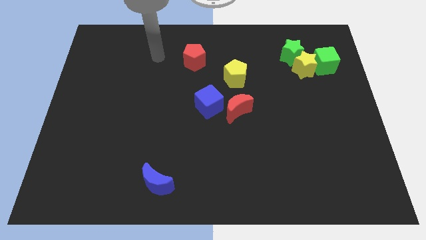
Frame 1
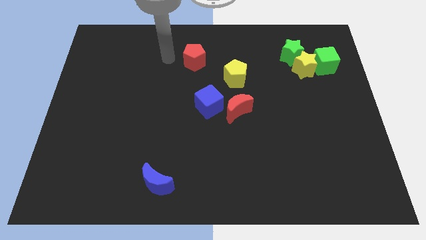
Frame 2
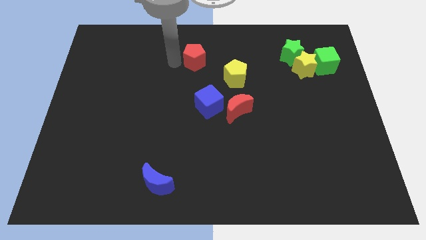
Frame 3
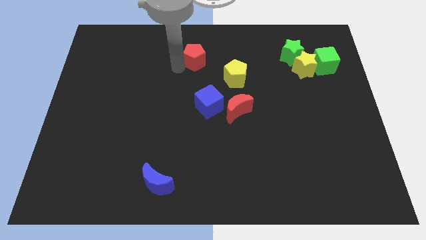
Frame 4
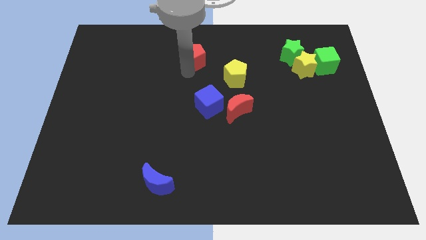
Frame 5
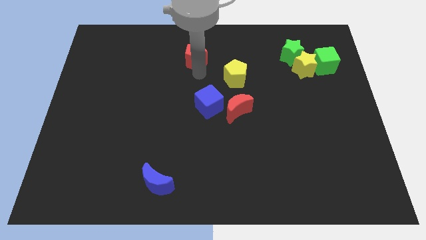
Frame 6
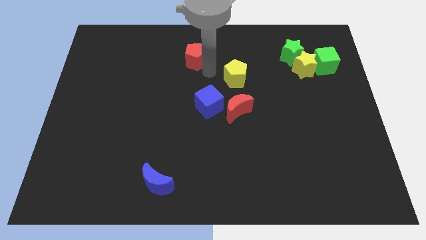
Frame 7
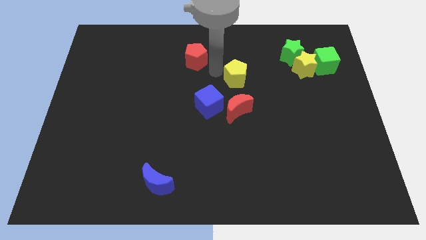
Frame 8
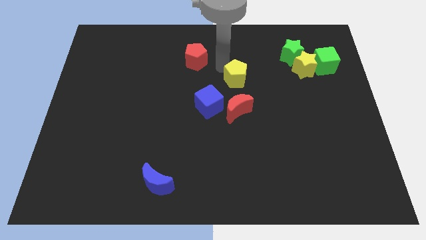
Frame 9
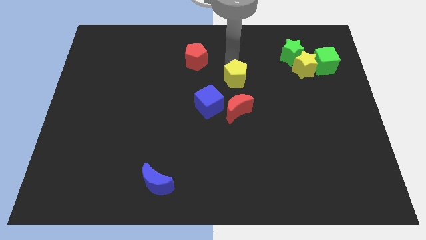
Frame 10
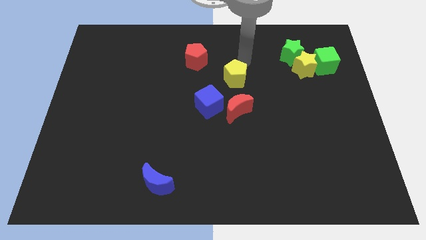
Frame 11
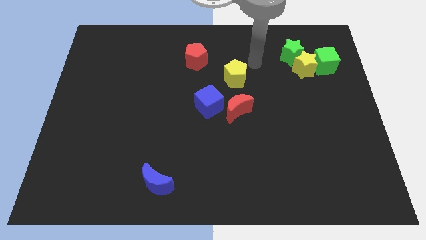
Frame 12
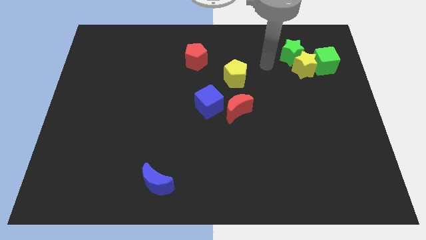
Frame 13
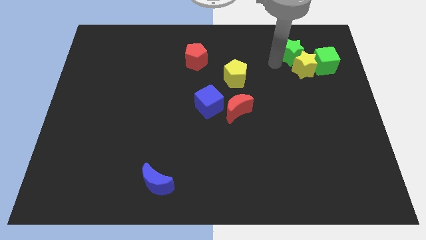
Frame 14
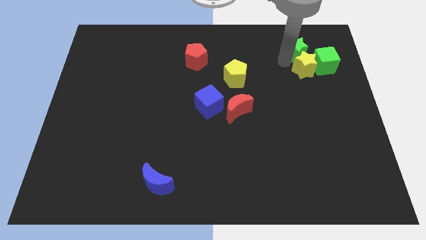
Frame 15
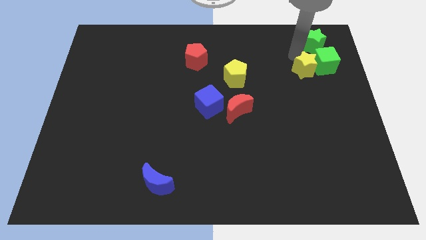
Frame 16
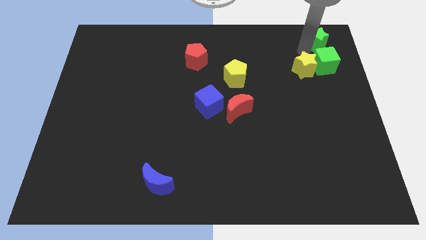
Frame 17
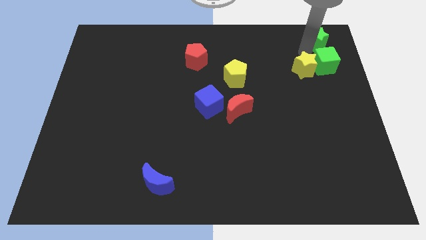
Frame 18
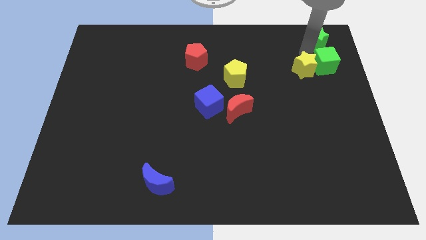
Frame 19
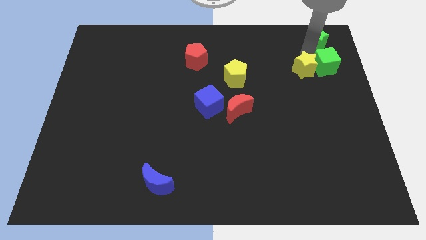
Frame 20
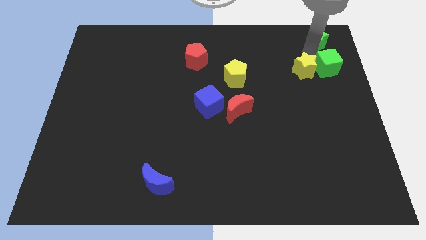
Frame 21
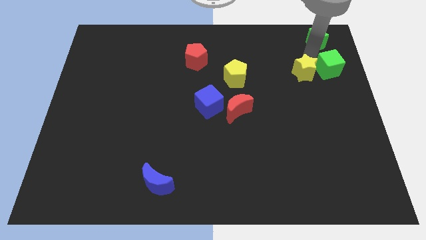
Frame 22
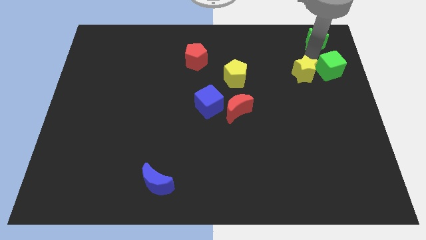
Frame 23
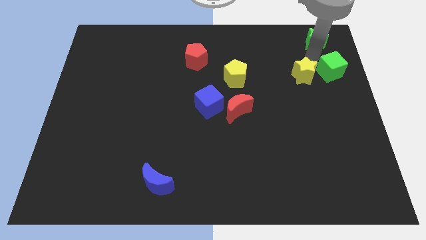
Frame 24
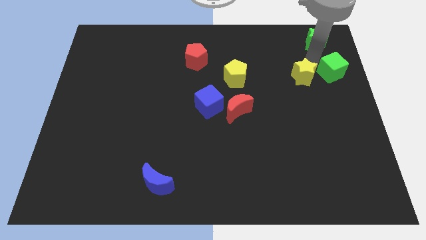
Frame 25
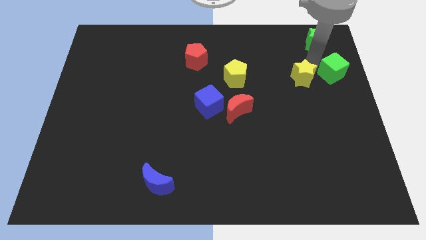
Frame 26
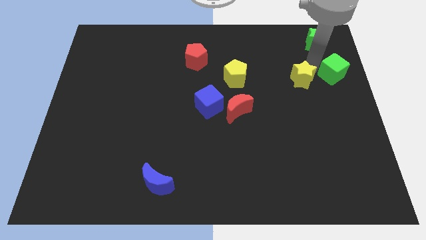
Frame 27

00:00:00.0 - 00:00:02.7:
separate the yellow star from the green star and green cube

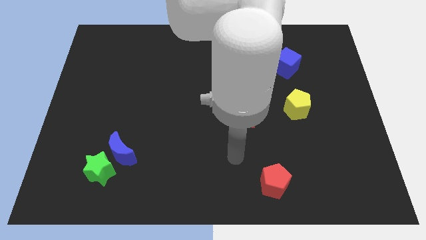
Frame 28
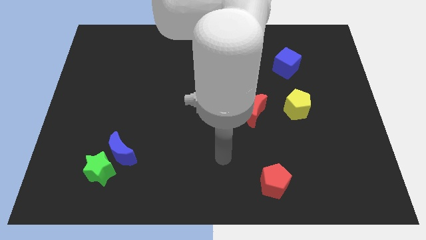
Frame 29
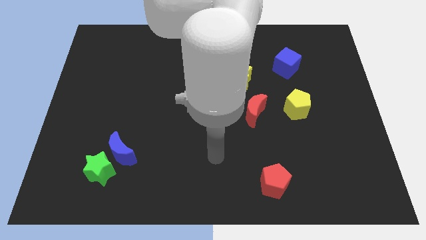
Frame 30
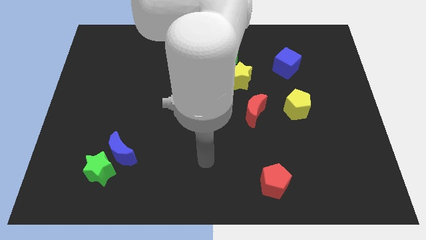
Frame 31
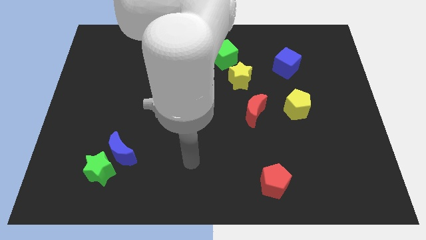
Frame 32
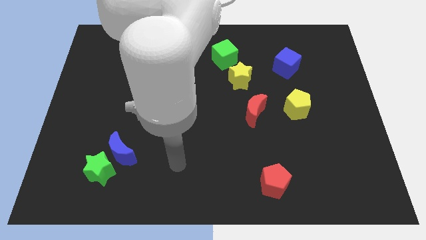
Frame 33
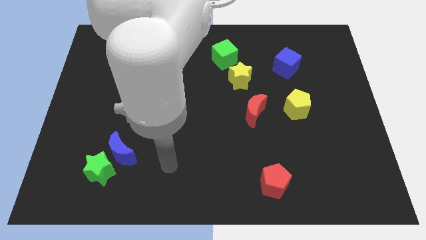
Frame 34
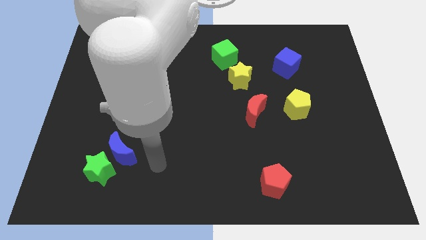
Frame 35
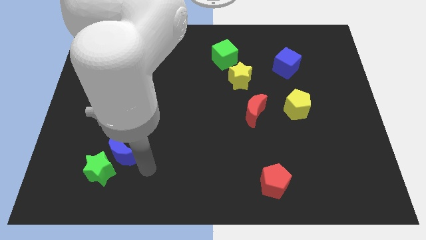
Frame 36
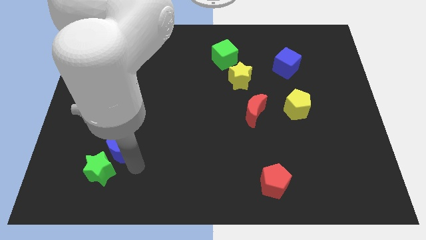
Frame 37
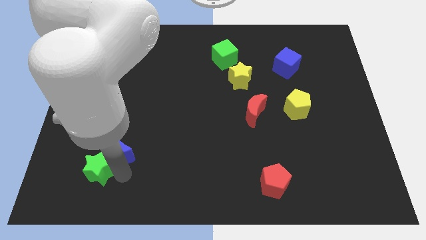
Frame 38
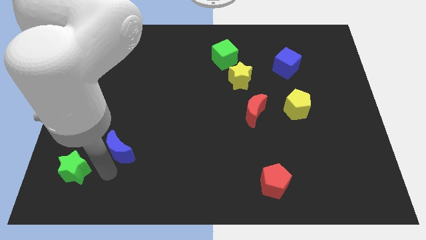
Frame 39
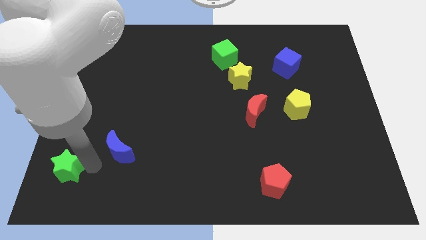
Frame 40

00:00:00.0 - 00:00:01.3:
pull the blue moon apart from the green star

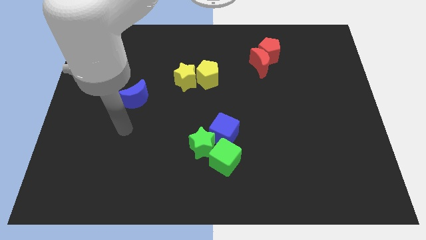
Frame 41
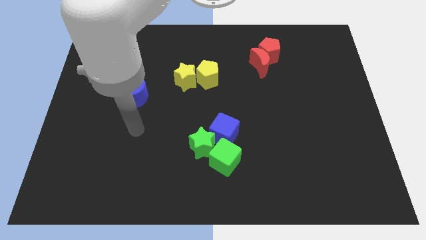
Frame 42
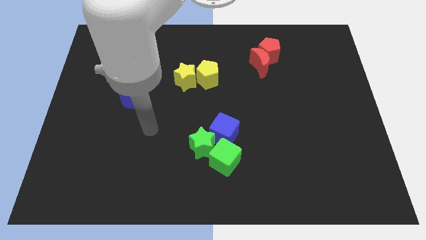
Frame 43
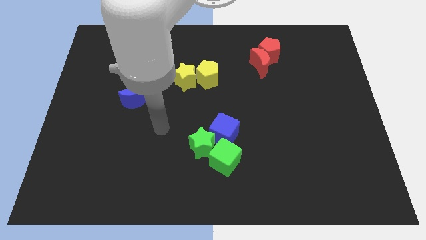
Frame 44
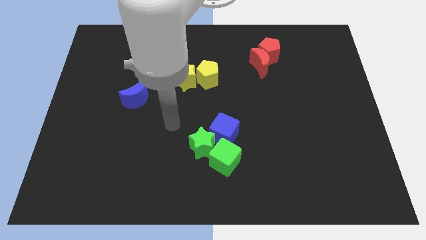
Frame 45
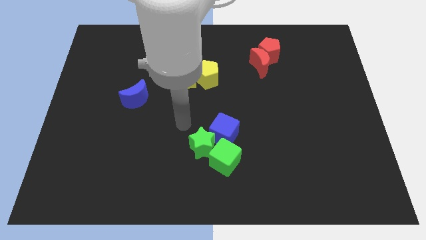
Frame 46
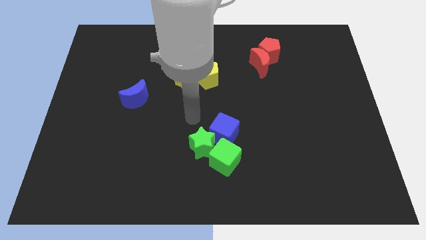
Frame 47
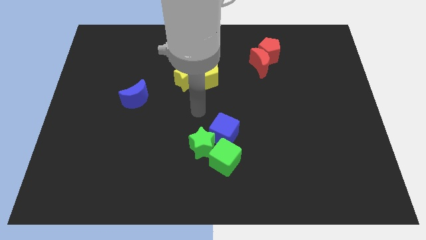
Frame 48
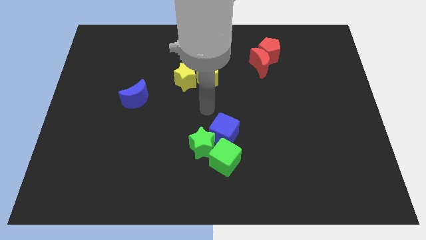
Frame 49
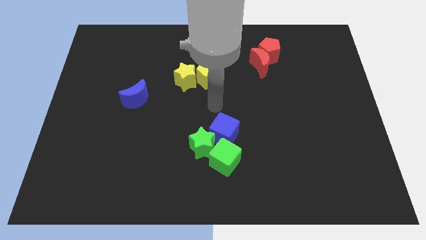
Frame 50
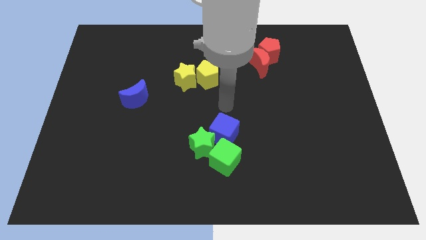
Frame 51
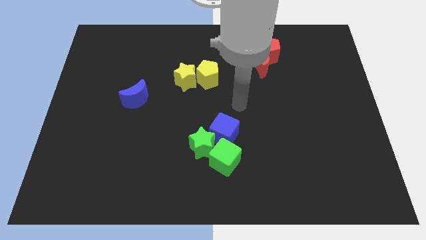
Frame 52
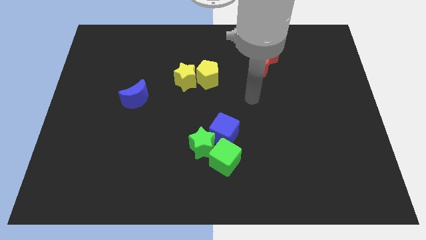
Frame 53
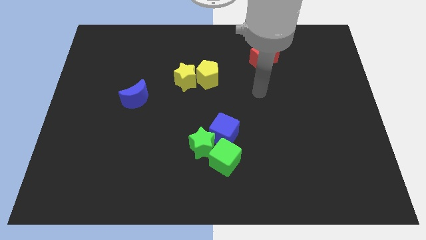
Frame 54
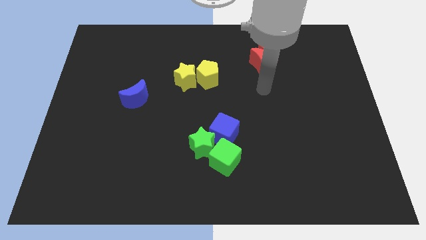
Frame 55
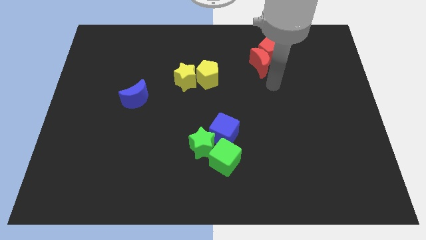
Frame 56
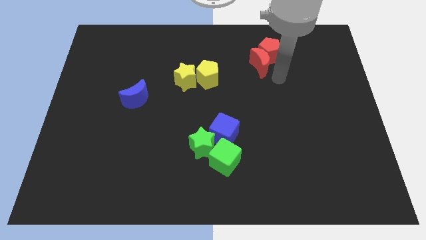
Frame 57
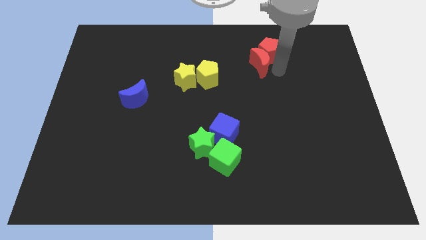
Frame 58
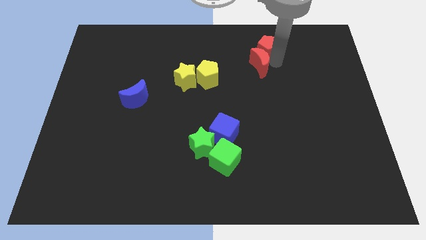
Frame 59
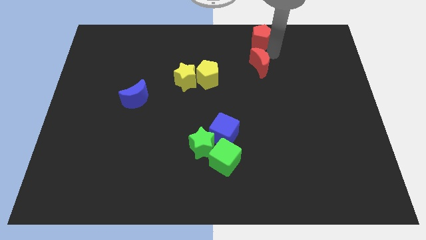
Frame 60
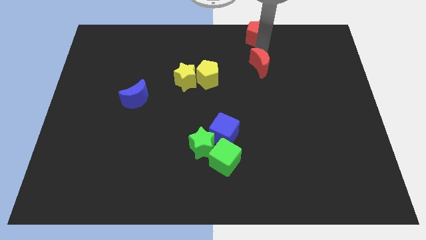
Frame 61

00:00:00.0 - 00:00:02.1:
pull the red moon apart from the red pentagon

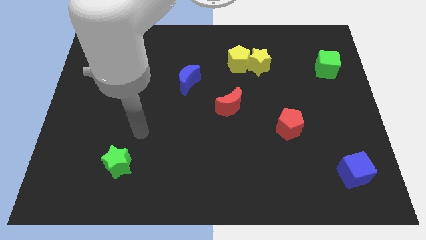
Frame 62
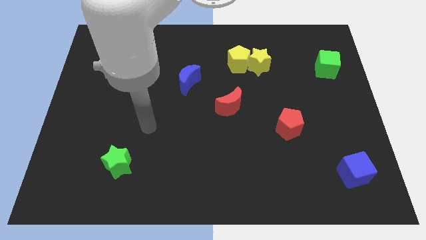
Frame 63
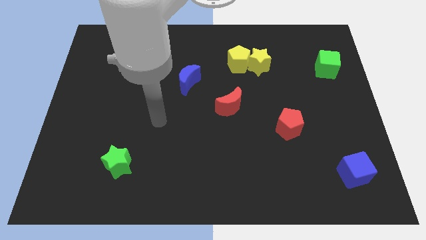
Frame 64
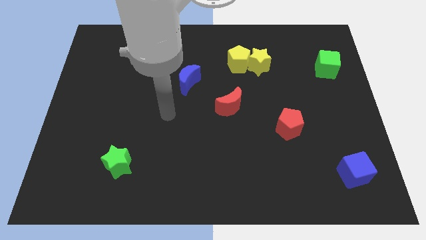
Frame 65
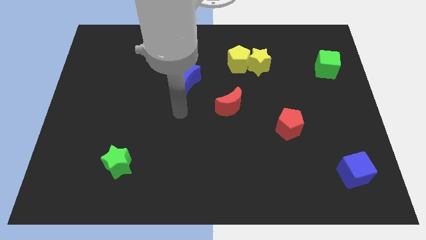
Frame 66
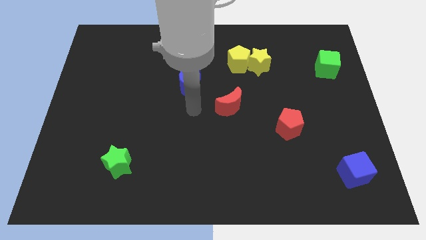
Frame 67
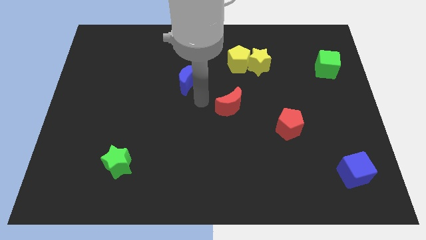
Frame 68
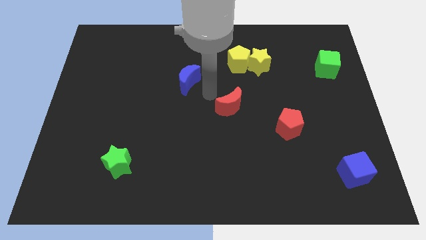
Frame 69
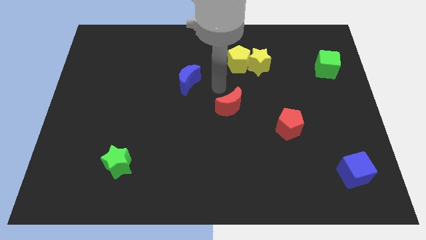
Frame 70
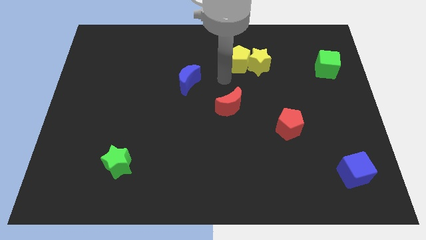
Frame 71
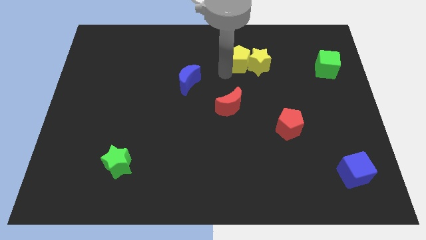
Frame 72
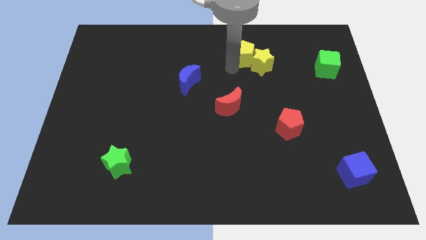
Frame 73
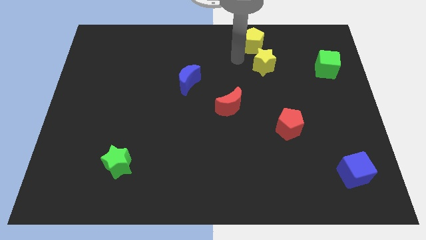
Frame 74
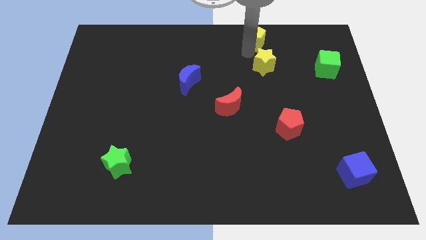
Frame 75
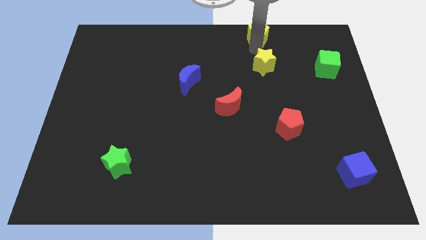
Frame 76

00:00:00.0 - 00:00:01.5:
move the yellow star away from the yellow pentagon

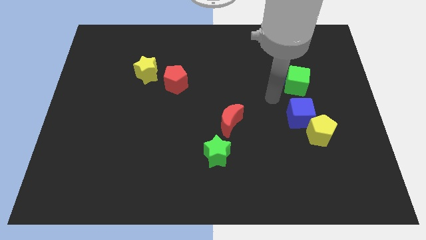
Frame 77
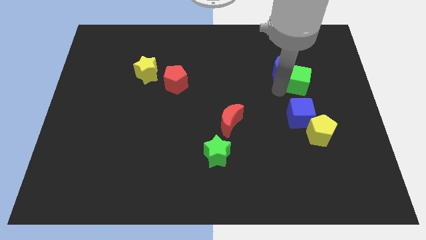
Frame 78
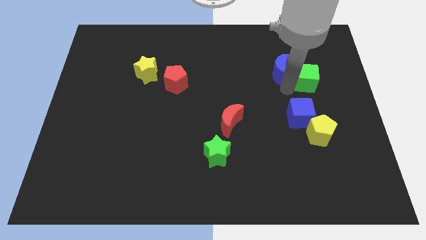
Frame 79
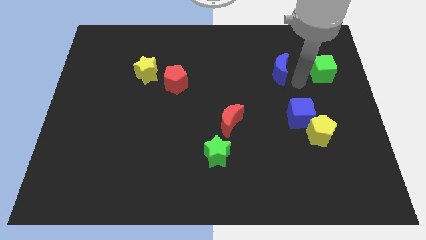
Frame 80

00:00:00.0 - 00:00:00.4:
move the blue moon away from the green cube

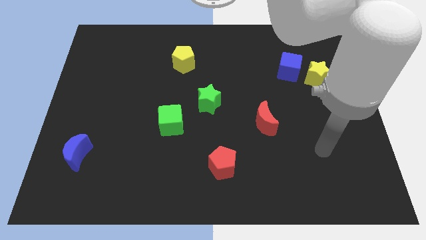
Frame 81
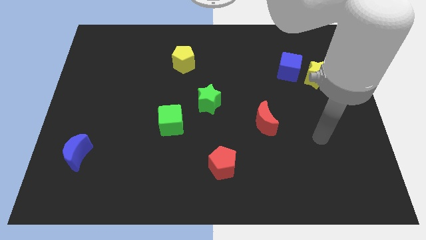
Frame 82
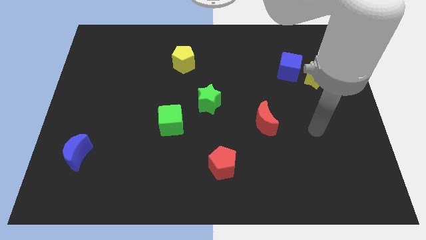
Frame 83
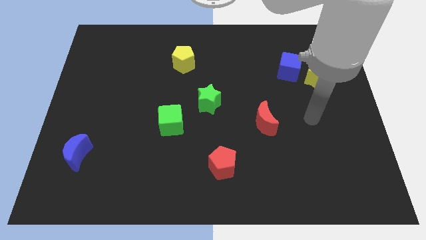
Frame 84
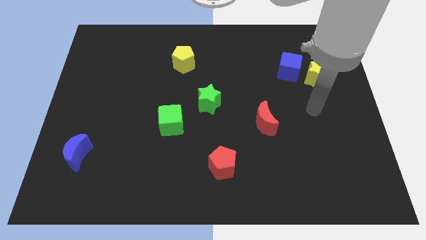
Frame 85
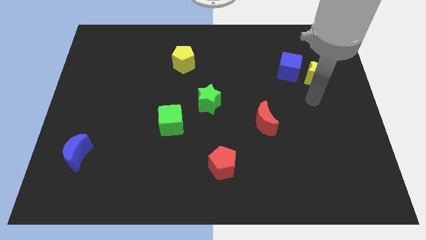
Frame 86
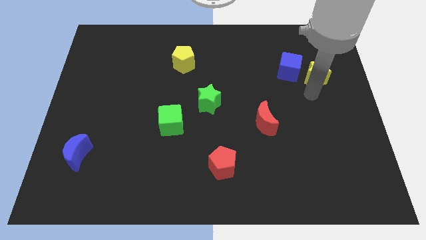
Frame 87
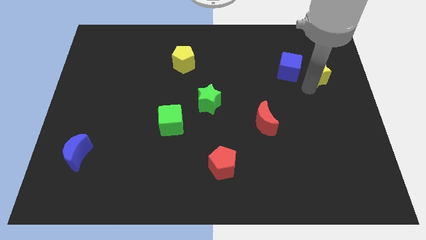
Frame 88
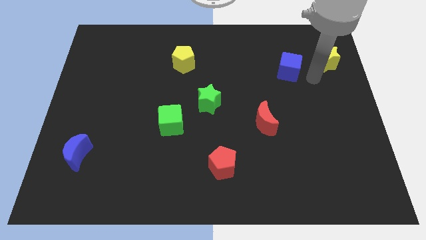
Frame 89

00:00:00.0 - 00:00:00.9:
pull the blue cube apart from the yellow star

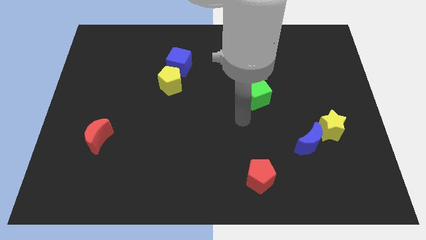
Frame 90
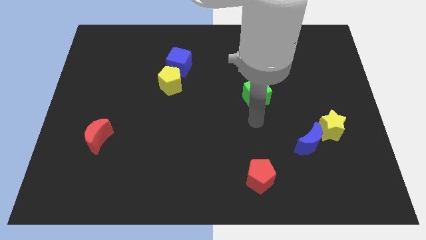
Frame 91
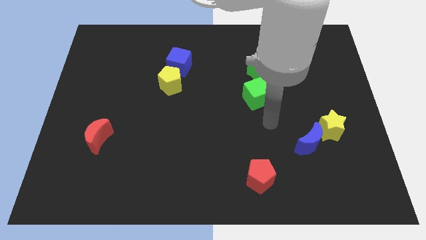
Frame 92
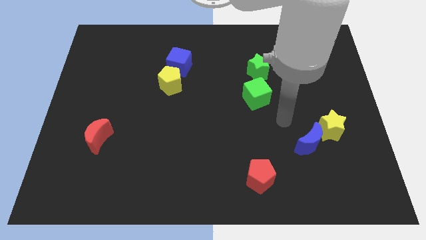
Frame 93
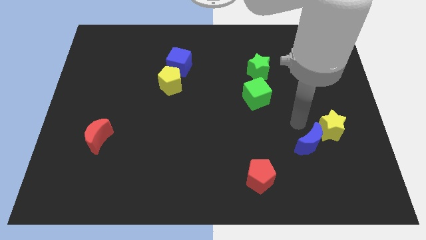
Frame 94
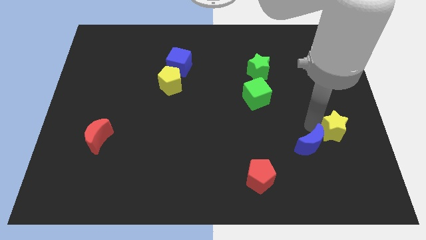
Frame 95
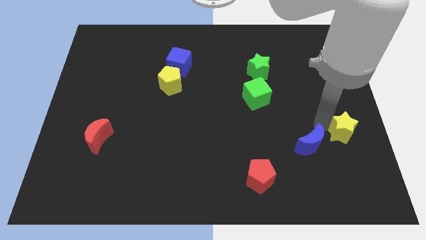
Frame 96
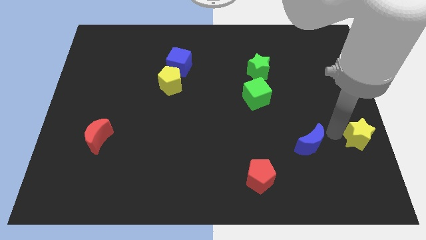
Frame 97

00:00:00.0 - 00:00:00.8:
move the blue moon away from the yellow star
